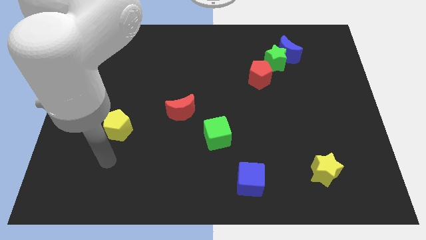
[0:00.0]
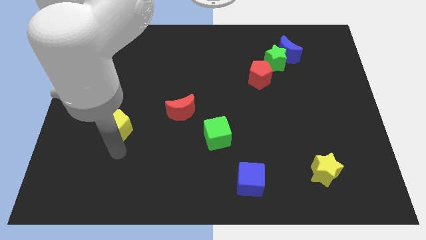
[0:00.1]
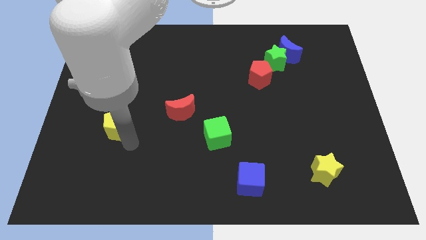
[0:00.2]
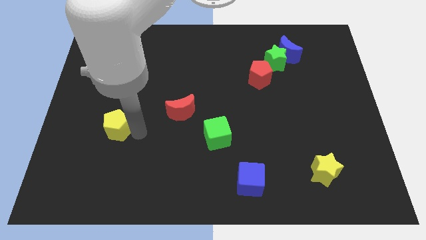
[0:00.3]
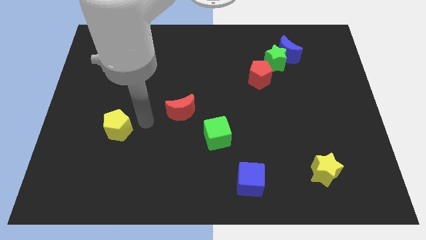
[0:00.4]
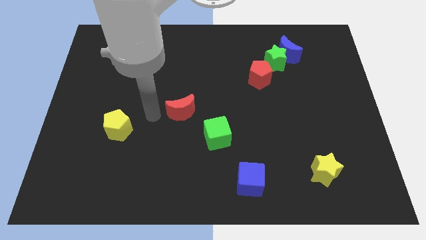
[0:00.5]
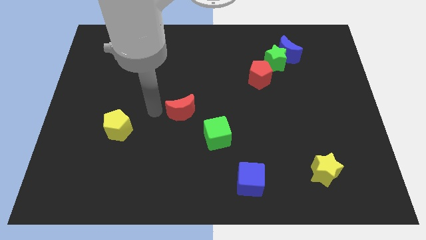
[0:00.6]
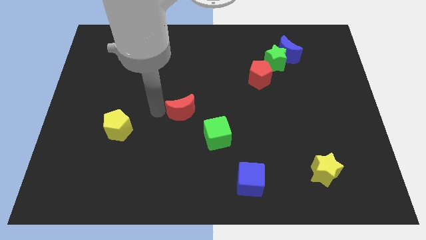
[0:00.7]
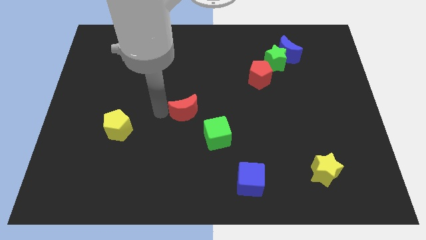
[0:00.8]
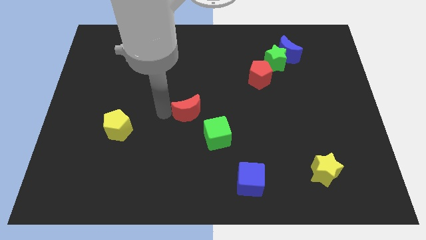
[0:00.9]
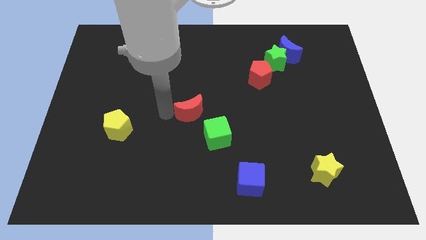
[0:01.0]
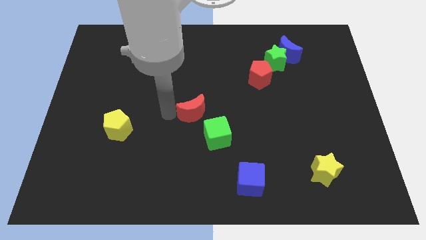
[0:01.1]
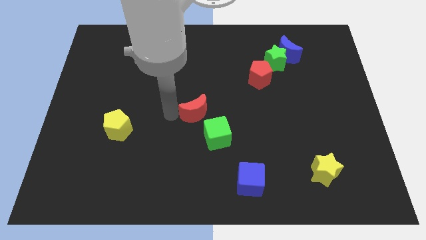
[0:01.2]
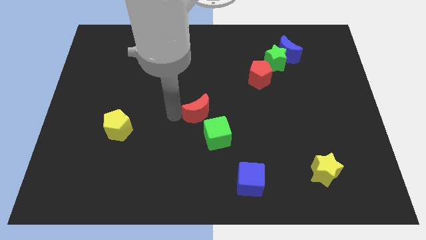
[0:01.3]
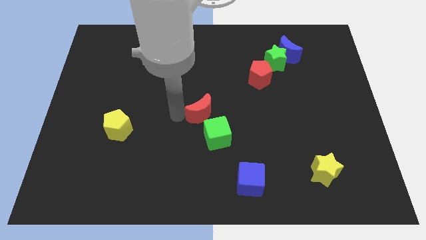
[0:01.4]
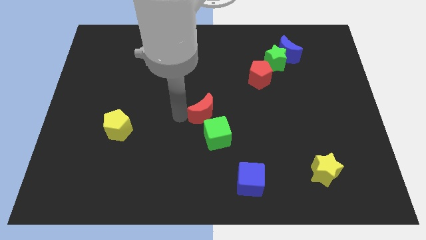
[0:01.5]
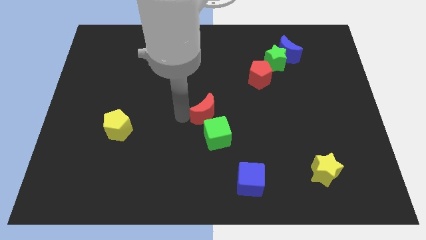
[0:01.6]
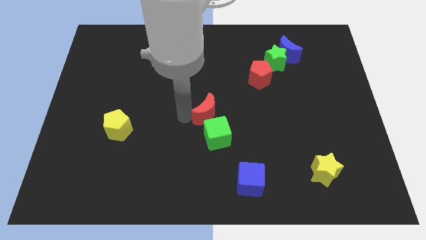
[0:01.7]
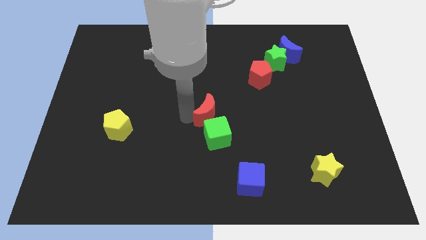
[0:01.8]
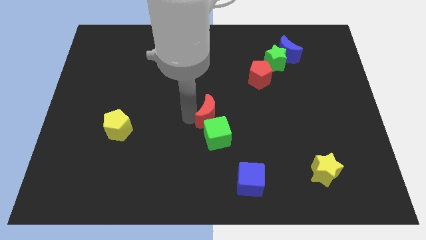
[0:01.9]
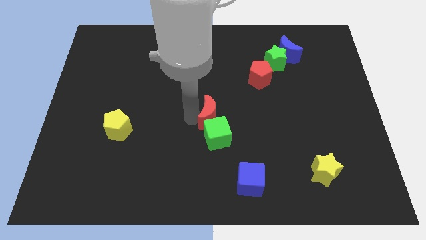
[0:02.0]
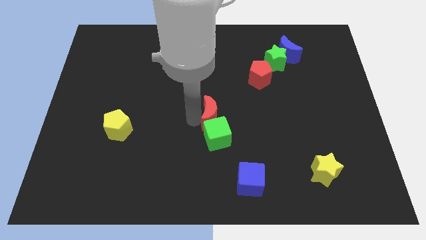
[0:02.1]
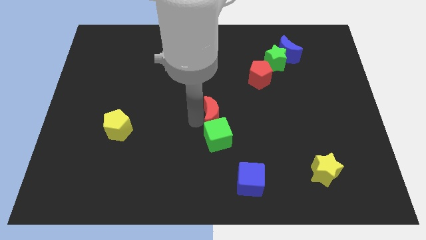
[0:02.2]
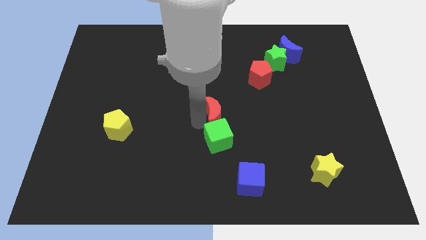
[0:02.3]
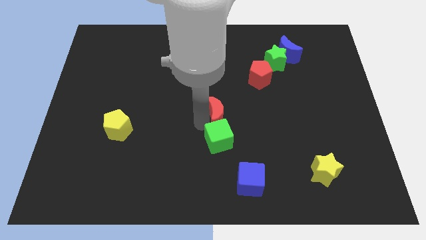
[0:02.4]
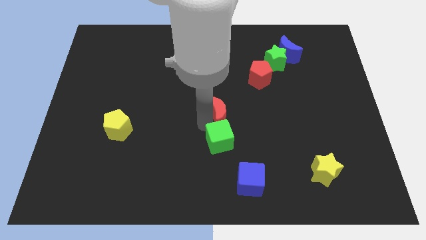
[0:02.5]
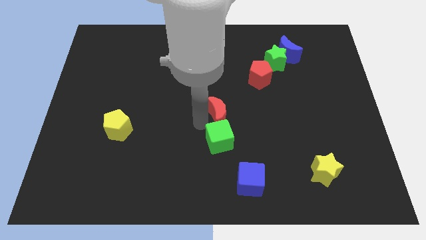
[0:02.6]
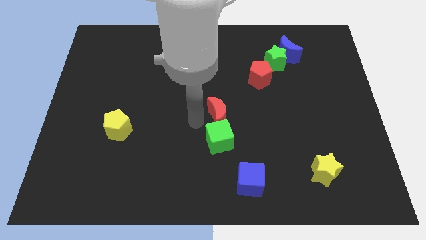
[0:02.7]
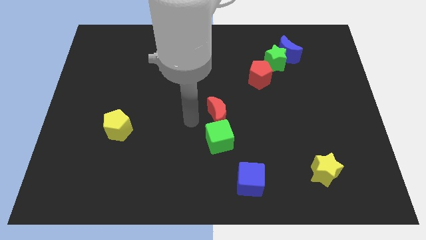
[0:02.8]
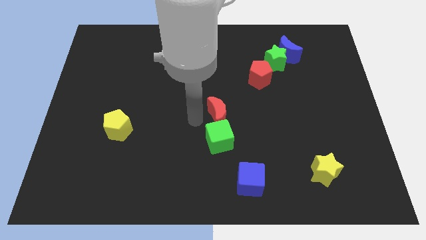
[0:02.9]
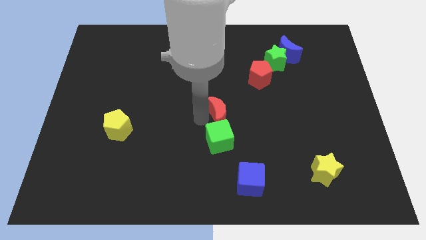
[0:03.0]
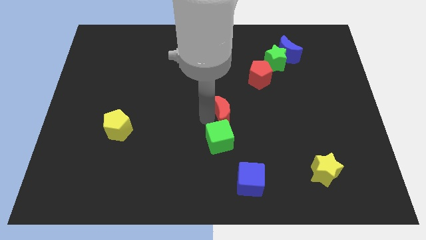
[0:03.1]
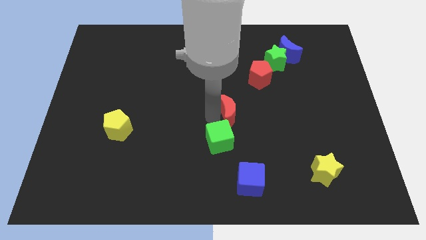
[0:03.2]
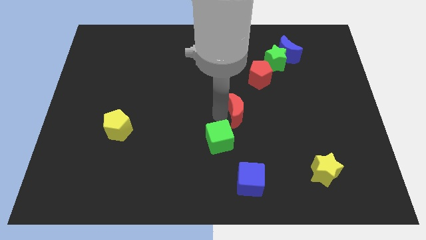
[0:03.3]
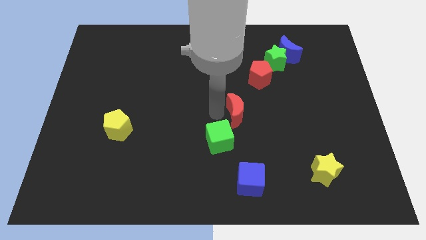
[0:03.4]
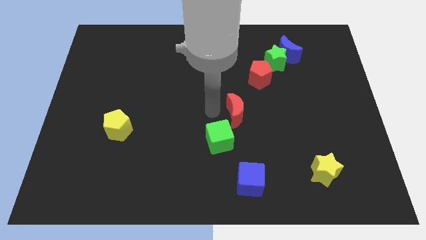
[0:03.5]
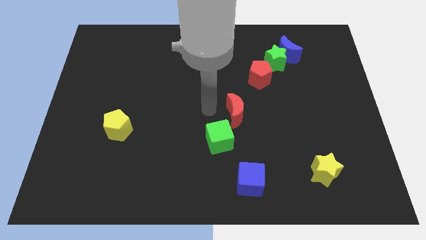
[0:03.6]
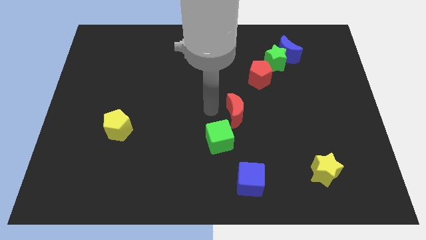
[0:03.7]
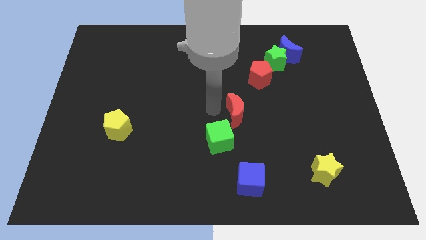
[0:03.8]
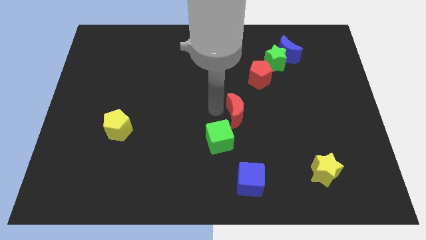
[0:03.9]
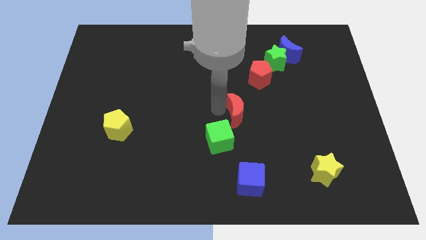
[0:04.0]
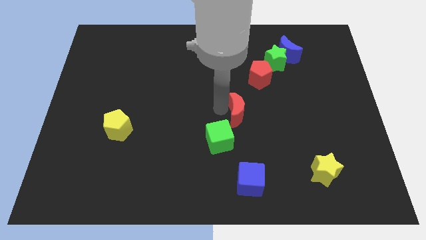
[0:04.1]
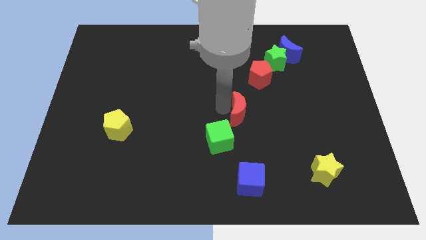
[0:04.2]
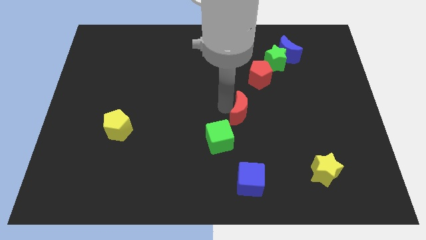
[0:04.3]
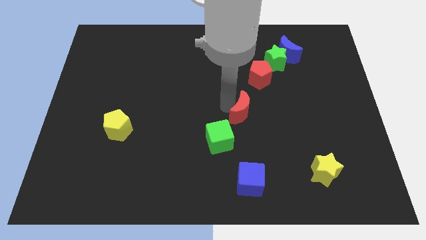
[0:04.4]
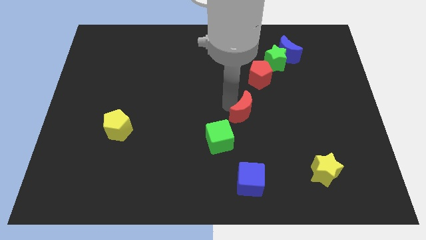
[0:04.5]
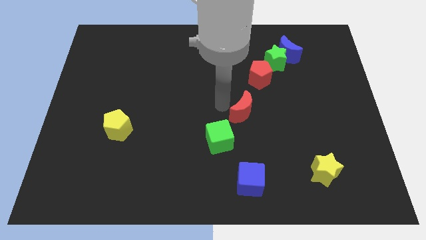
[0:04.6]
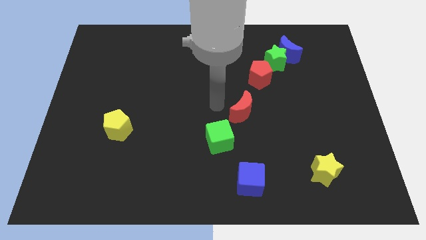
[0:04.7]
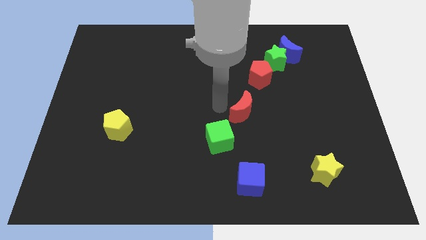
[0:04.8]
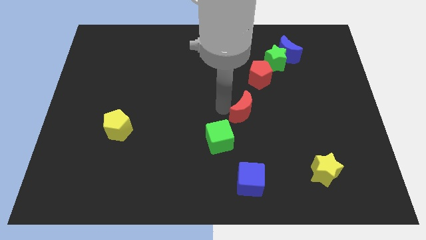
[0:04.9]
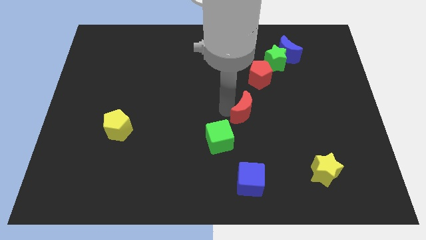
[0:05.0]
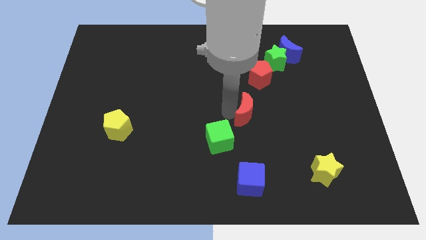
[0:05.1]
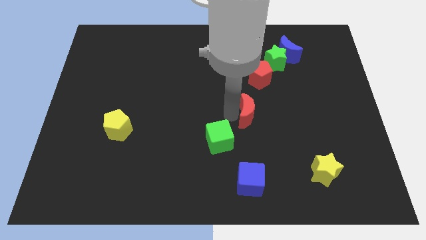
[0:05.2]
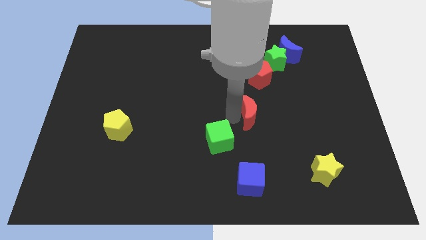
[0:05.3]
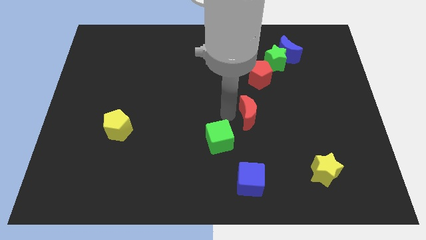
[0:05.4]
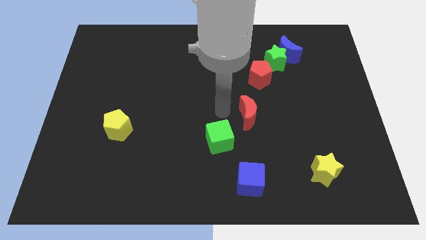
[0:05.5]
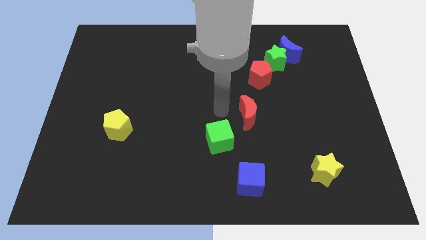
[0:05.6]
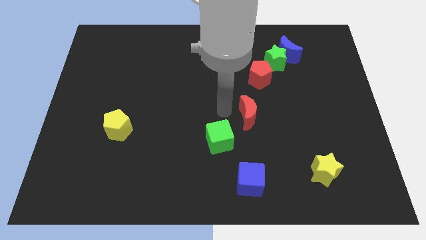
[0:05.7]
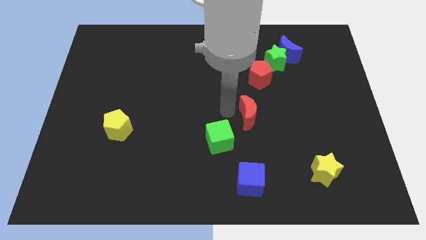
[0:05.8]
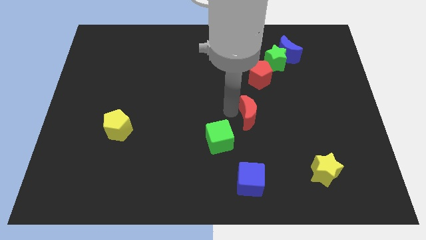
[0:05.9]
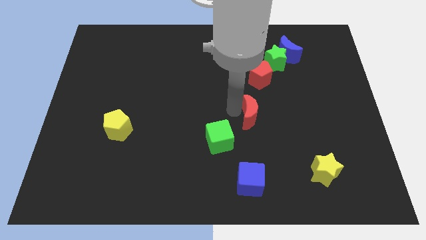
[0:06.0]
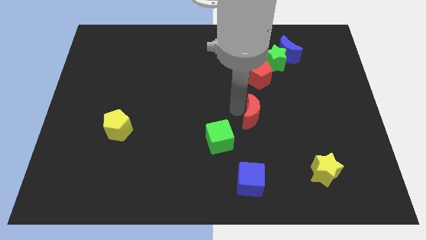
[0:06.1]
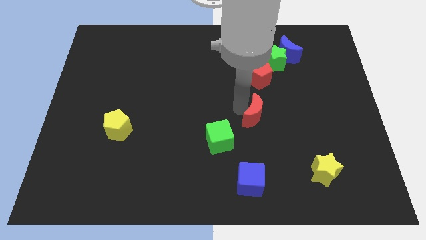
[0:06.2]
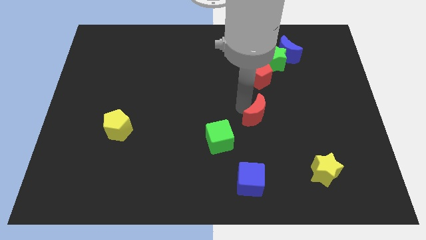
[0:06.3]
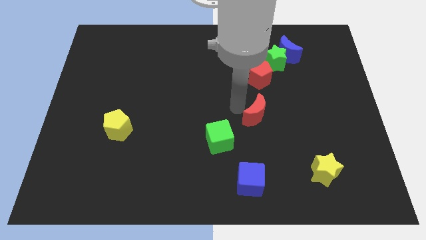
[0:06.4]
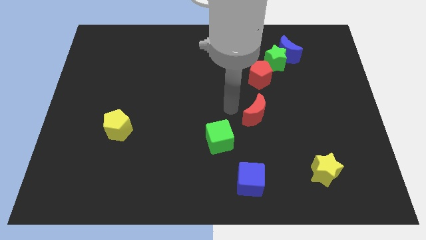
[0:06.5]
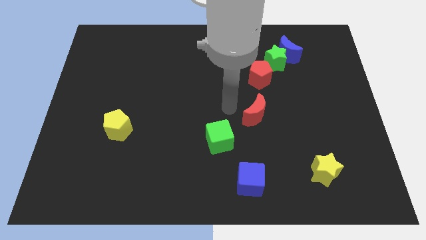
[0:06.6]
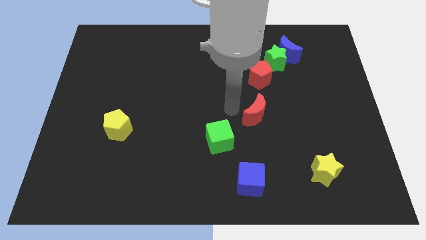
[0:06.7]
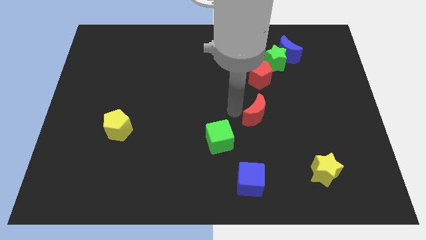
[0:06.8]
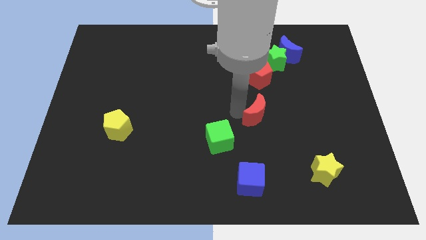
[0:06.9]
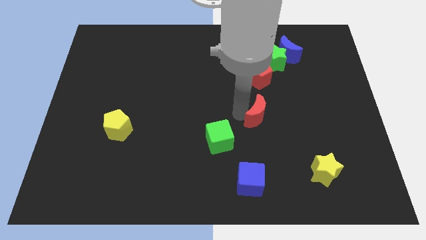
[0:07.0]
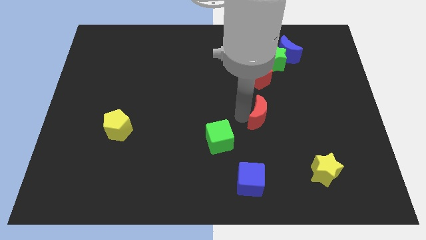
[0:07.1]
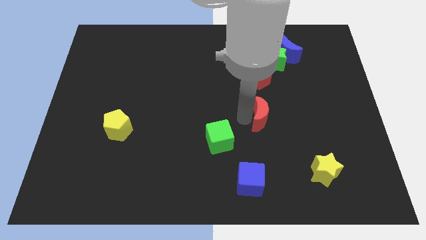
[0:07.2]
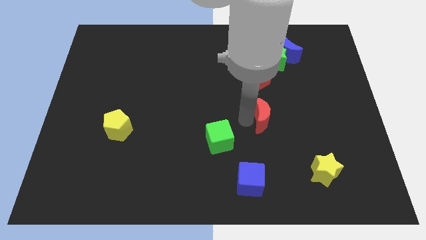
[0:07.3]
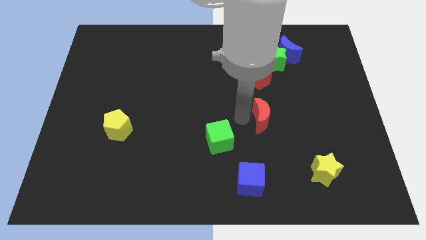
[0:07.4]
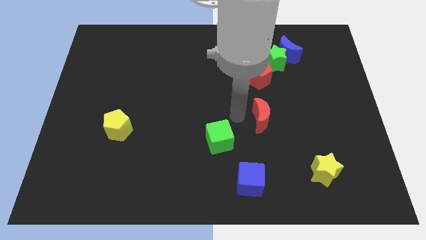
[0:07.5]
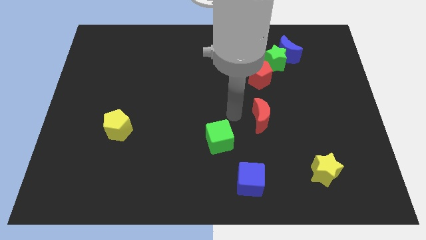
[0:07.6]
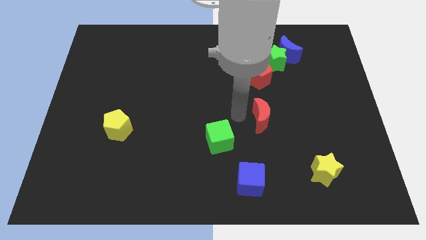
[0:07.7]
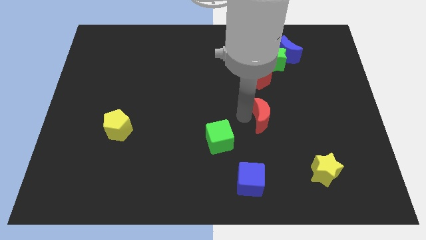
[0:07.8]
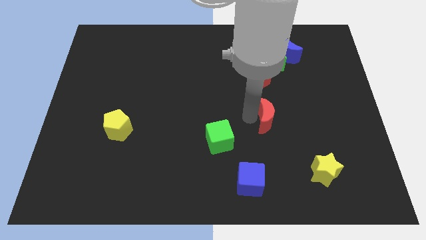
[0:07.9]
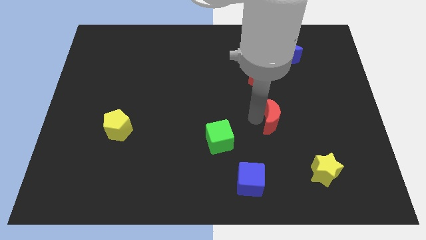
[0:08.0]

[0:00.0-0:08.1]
push the red moon to the right

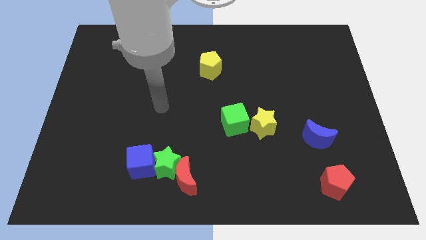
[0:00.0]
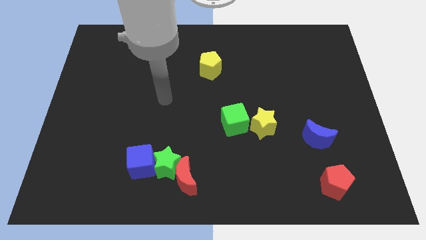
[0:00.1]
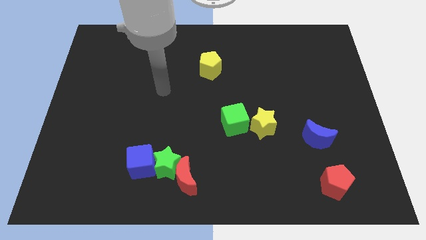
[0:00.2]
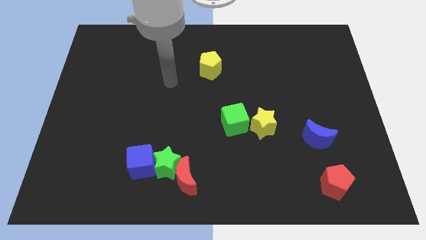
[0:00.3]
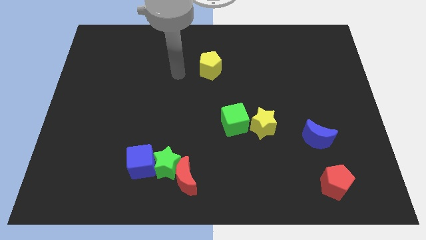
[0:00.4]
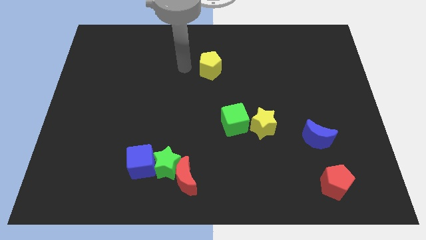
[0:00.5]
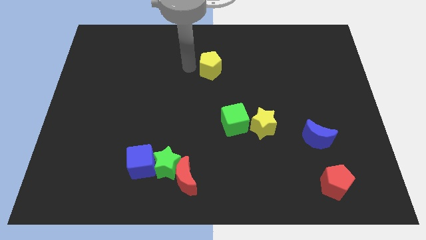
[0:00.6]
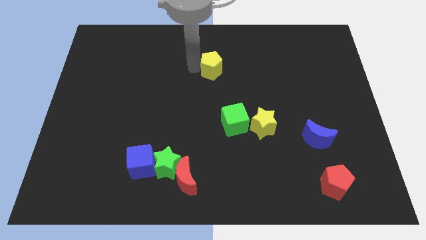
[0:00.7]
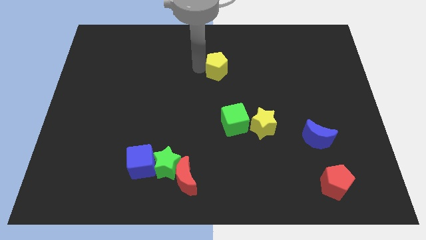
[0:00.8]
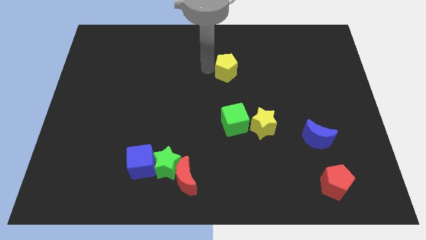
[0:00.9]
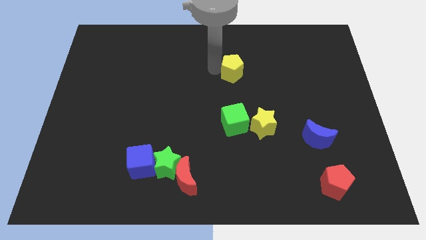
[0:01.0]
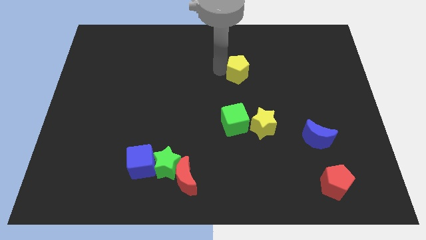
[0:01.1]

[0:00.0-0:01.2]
slide the yellow pentagon somewhat to the right
